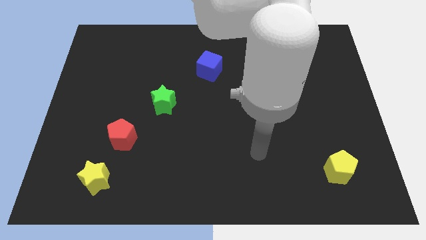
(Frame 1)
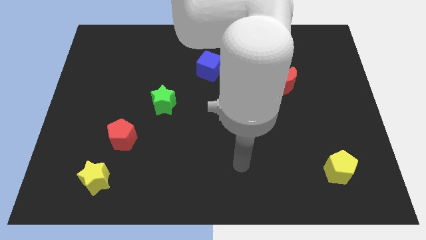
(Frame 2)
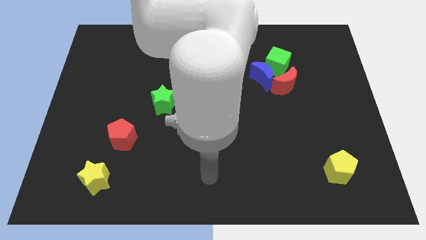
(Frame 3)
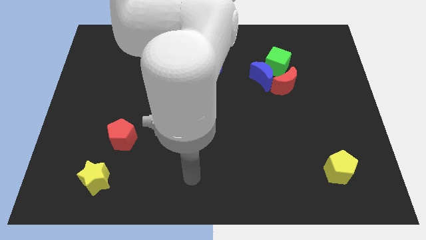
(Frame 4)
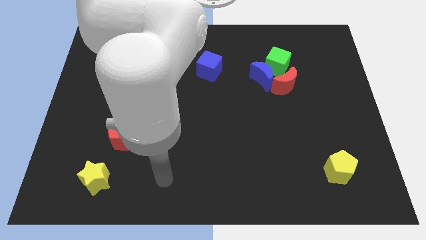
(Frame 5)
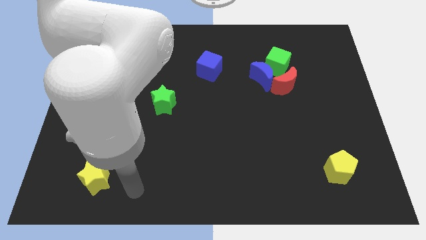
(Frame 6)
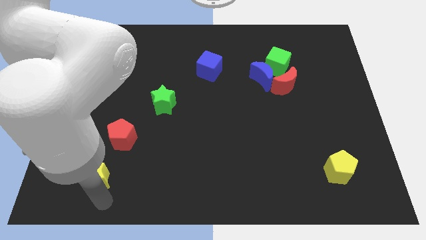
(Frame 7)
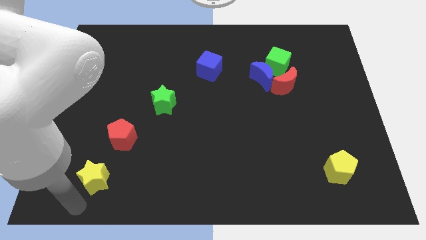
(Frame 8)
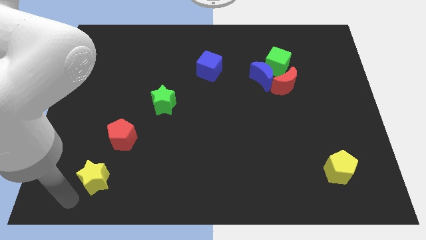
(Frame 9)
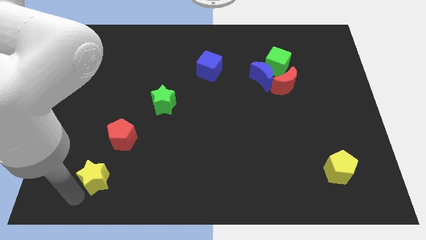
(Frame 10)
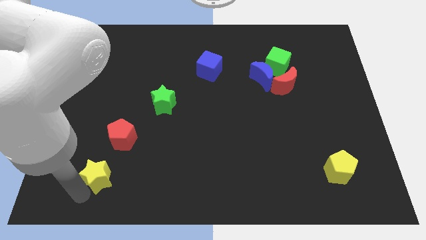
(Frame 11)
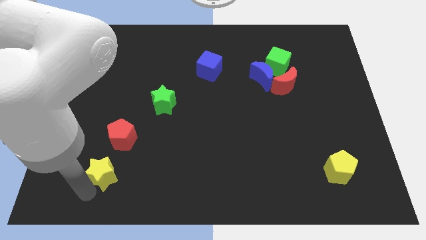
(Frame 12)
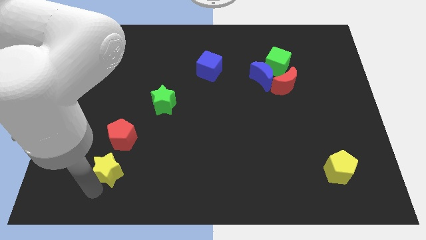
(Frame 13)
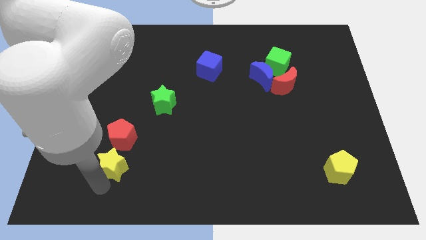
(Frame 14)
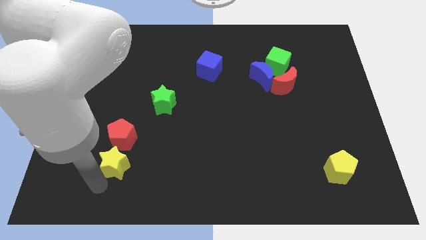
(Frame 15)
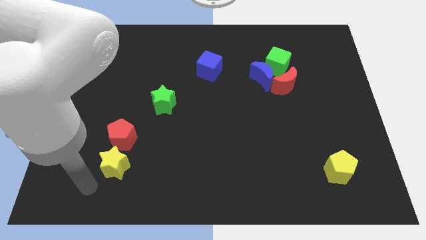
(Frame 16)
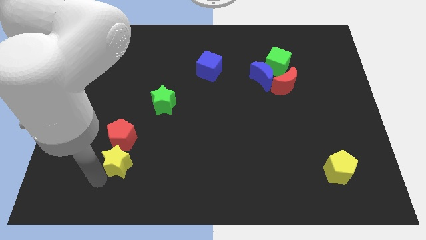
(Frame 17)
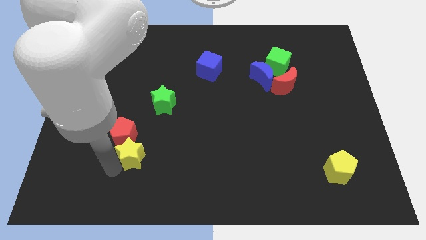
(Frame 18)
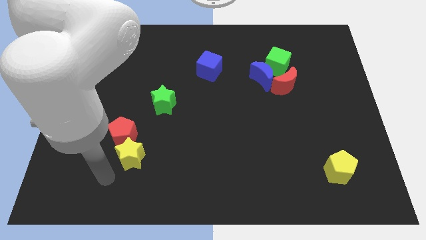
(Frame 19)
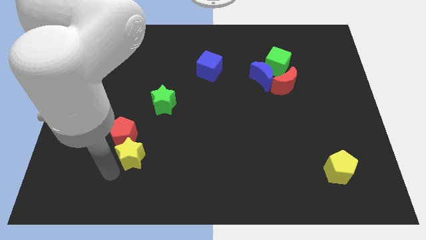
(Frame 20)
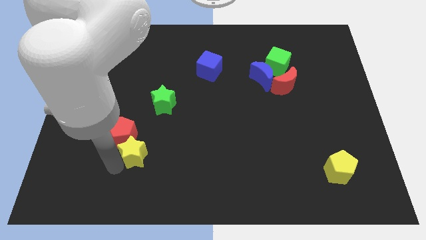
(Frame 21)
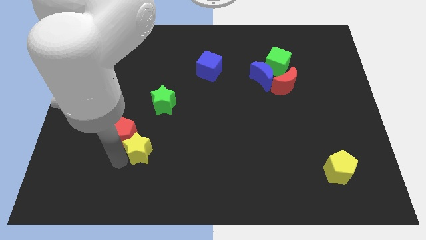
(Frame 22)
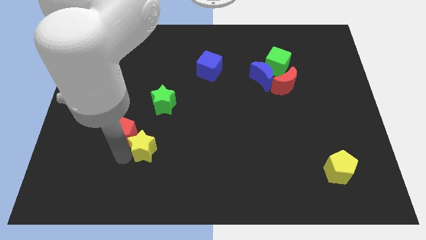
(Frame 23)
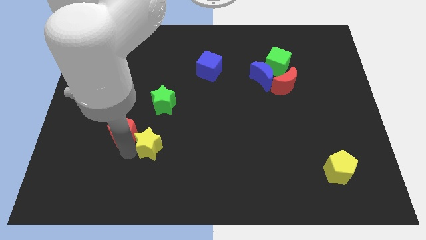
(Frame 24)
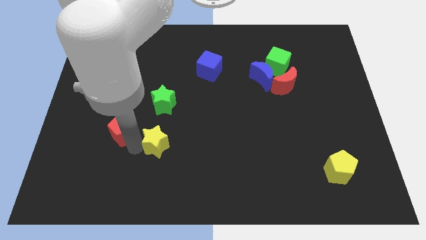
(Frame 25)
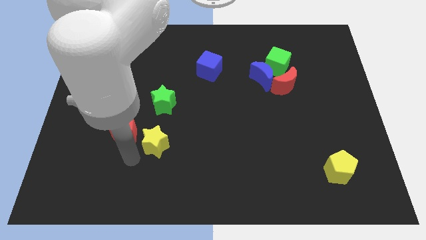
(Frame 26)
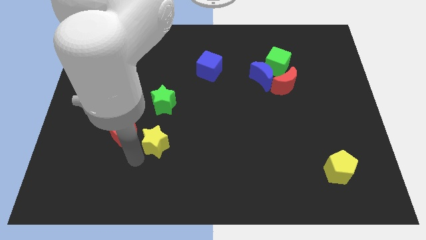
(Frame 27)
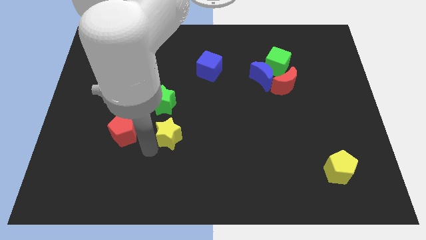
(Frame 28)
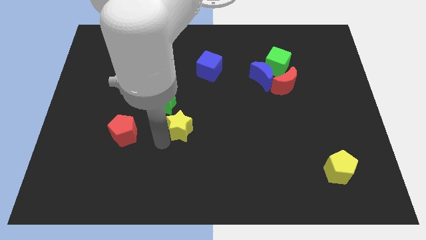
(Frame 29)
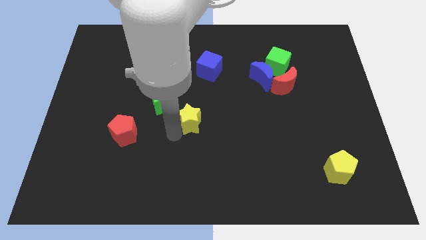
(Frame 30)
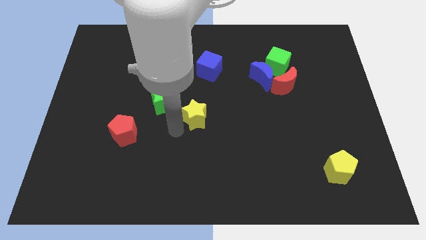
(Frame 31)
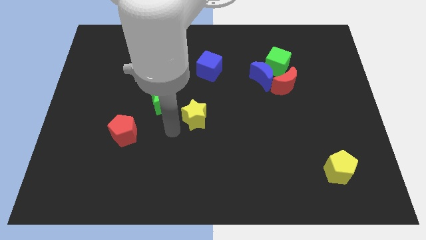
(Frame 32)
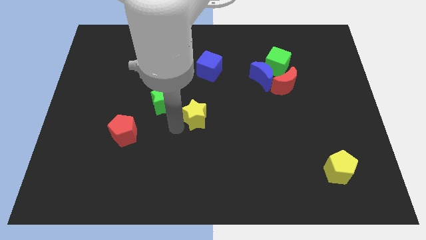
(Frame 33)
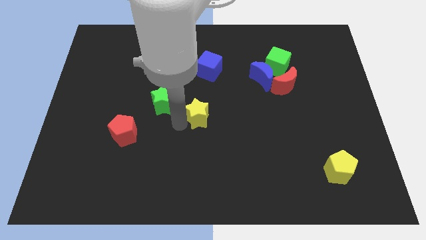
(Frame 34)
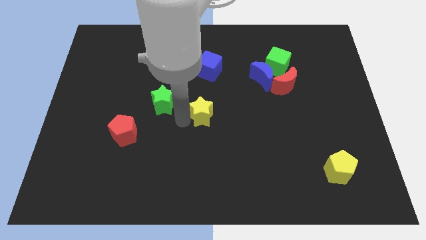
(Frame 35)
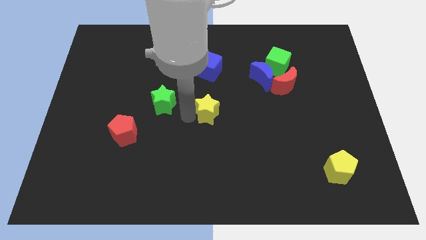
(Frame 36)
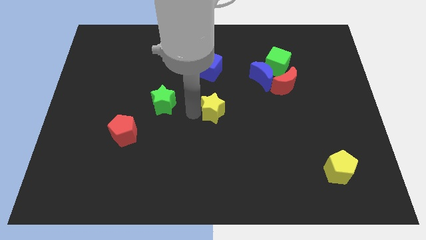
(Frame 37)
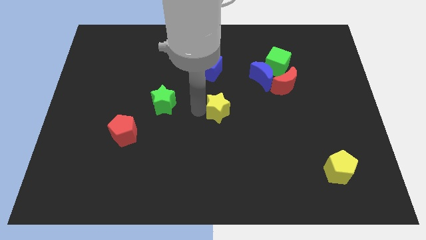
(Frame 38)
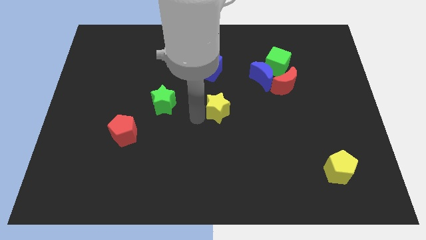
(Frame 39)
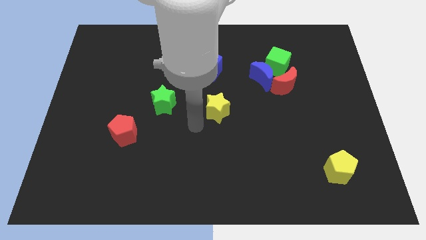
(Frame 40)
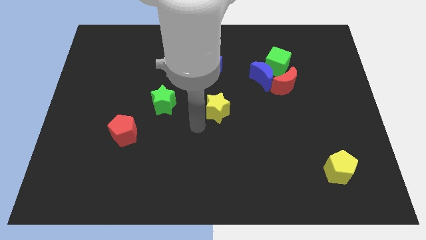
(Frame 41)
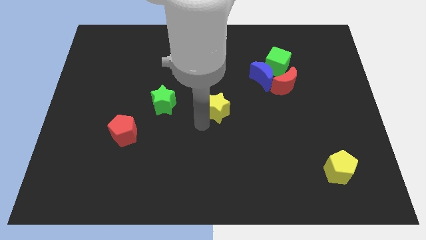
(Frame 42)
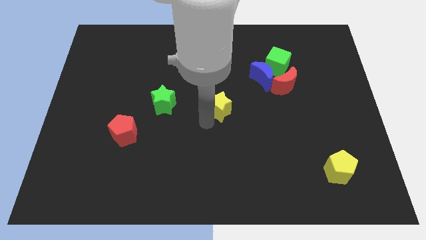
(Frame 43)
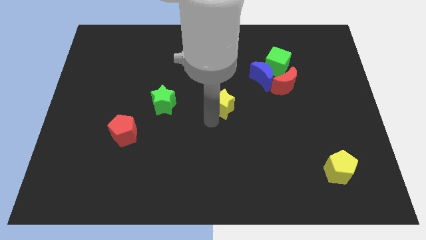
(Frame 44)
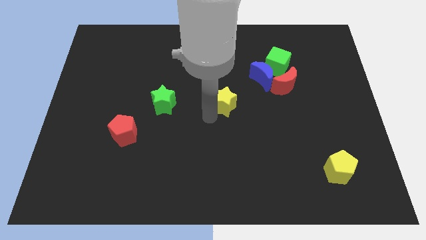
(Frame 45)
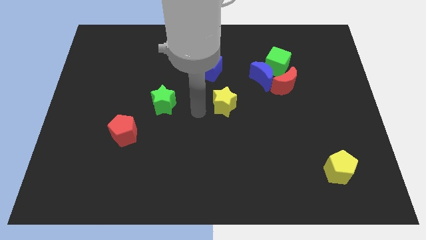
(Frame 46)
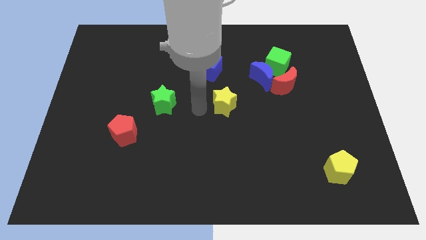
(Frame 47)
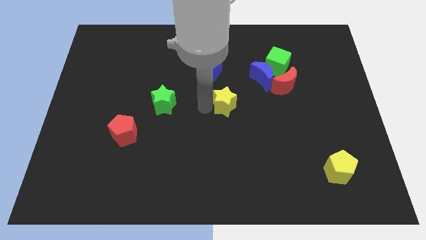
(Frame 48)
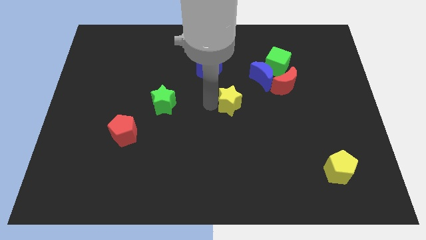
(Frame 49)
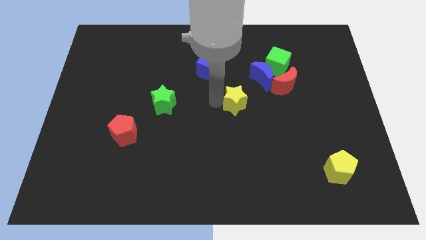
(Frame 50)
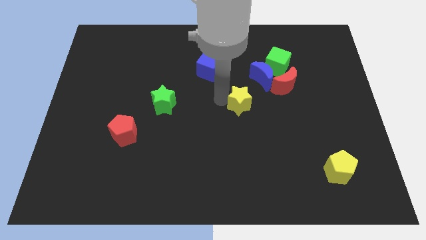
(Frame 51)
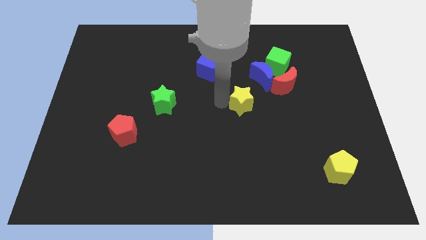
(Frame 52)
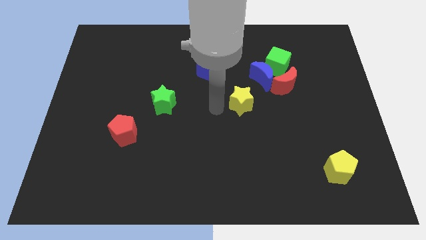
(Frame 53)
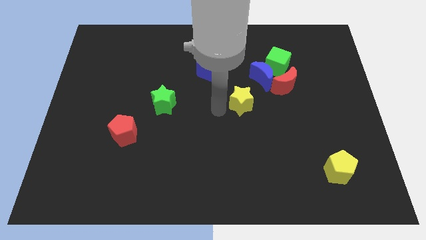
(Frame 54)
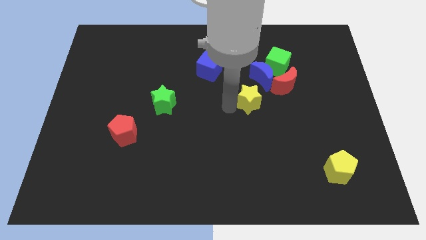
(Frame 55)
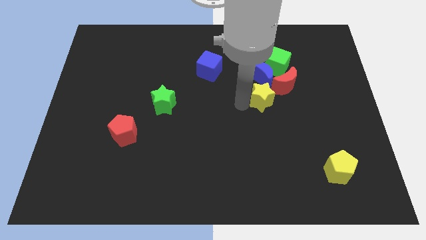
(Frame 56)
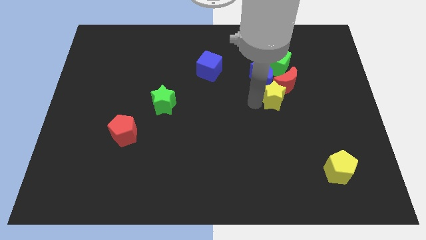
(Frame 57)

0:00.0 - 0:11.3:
put the yellow star towards the red moon

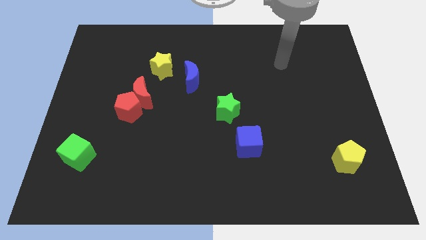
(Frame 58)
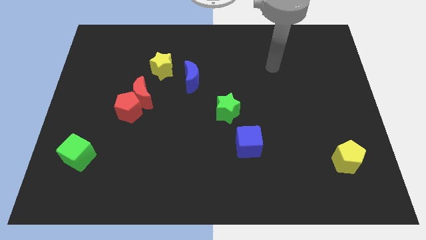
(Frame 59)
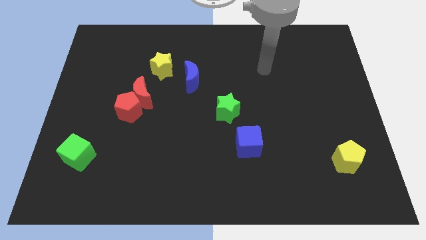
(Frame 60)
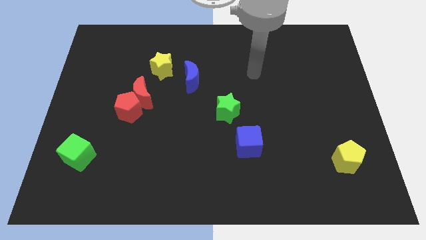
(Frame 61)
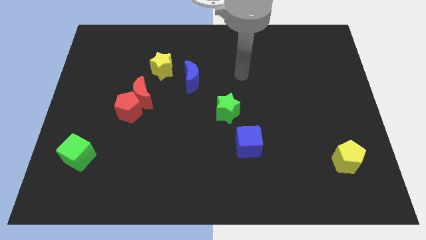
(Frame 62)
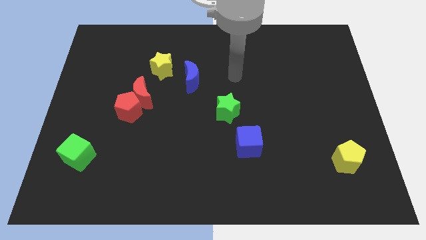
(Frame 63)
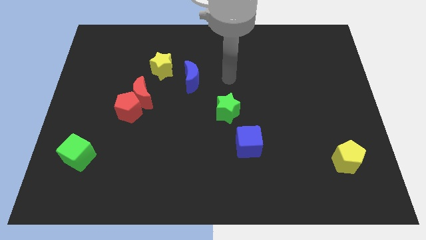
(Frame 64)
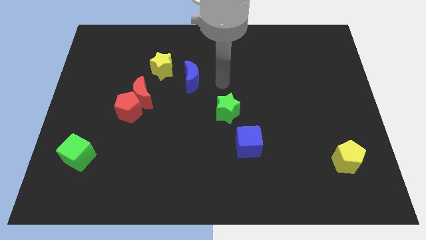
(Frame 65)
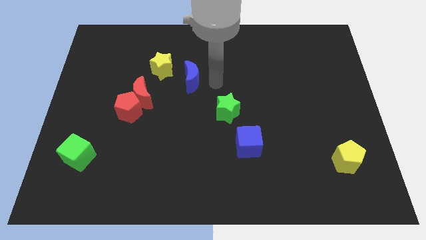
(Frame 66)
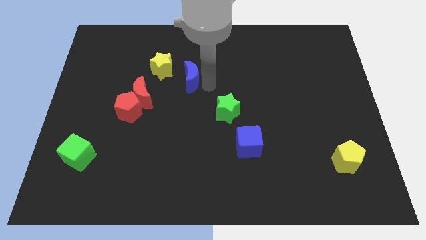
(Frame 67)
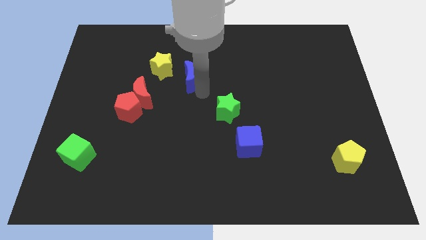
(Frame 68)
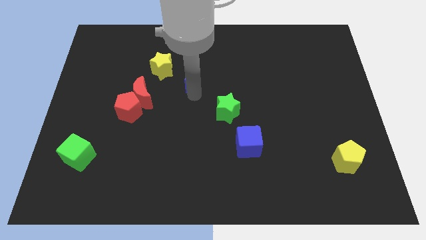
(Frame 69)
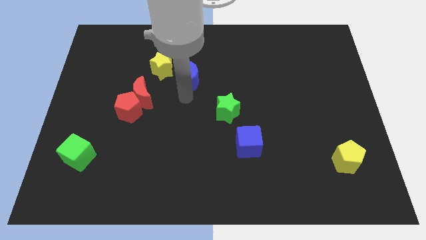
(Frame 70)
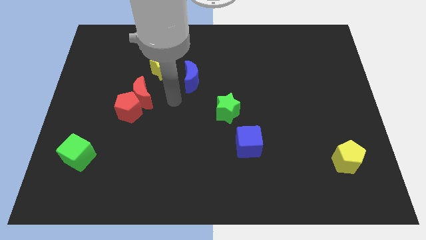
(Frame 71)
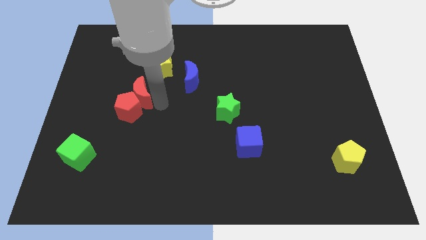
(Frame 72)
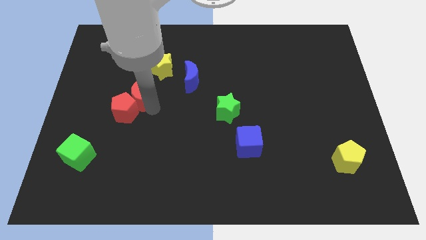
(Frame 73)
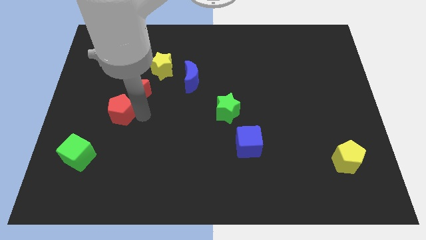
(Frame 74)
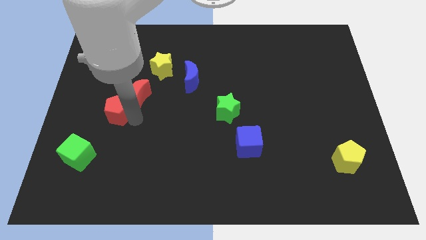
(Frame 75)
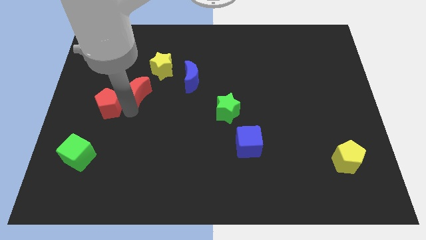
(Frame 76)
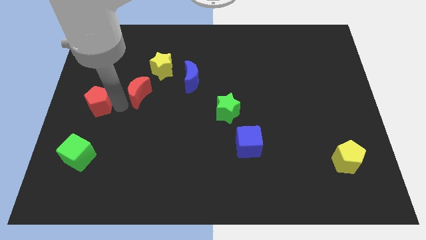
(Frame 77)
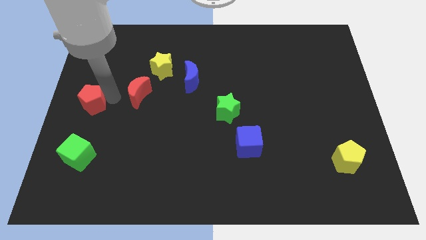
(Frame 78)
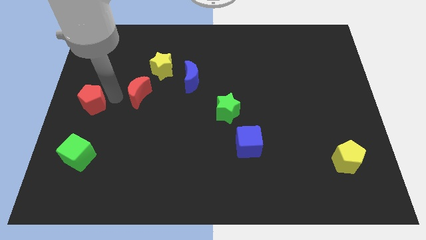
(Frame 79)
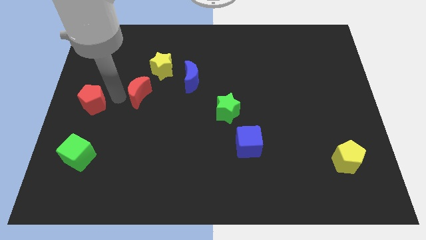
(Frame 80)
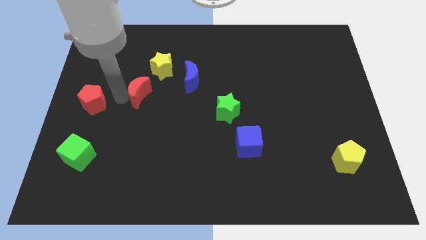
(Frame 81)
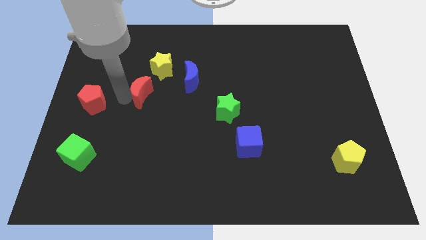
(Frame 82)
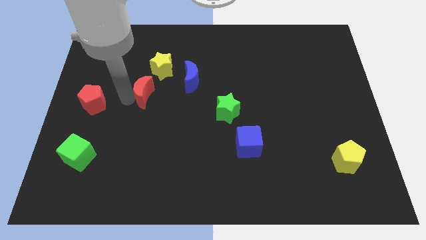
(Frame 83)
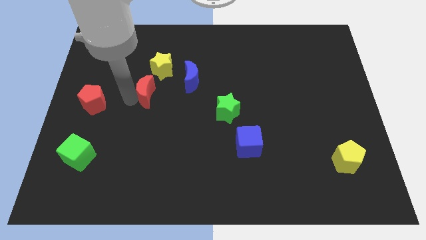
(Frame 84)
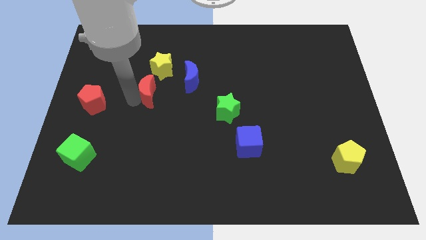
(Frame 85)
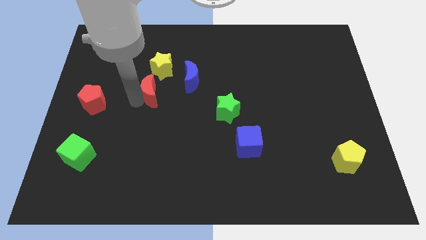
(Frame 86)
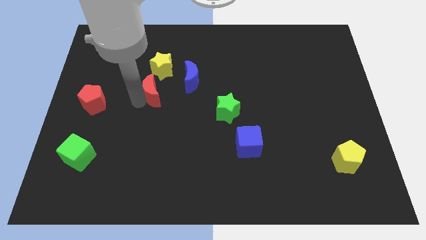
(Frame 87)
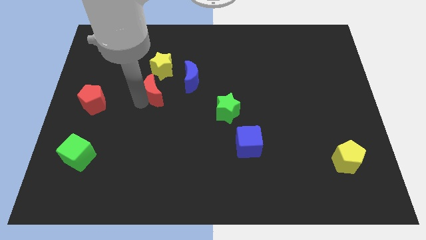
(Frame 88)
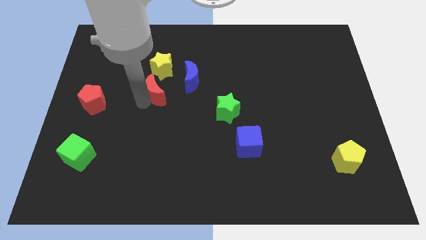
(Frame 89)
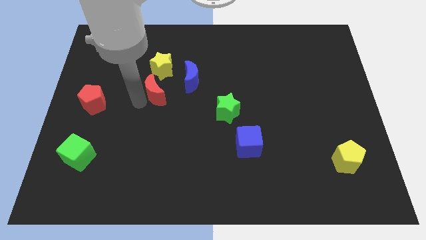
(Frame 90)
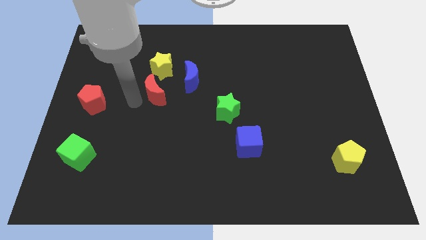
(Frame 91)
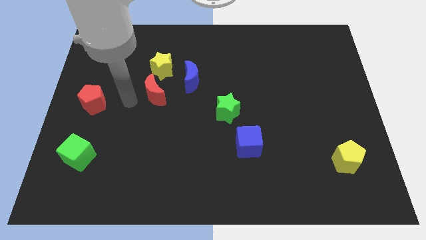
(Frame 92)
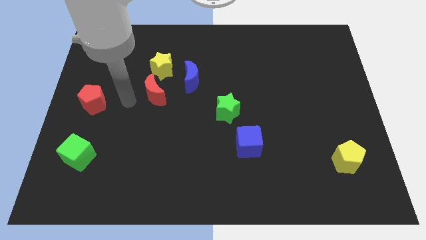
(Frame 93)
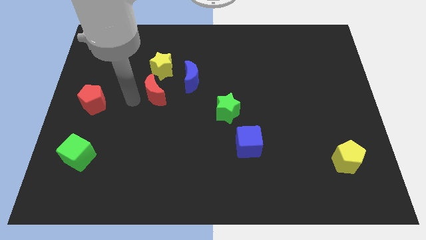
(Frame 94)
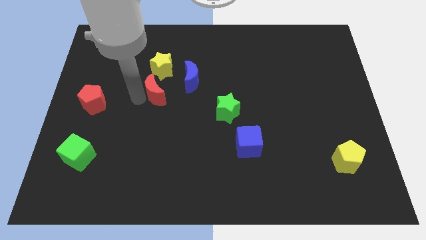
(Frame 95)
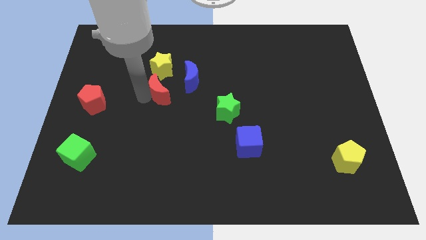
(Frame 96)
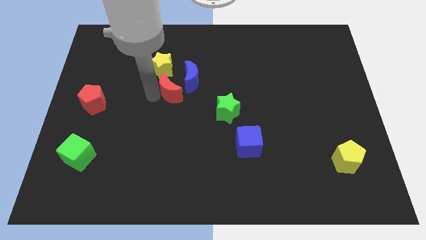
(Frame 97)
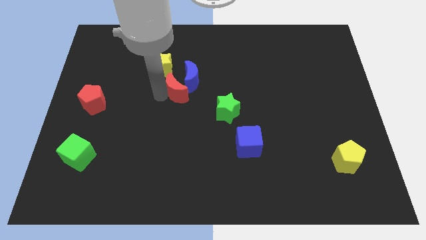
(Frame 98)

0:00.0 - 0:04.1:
put the red moon towards the blue moon
